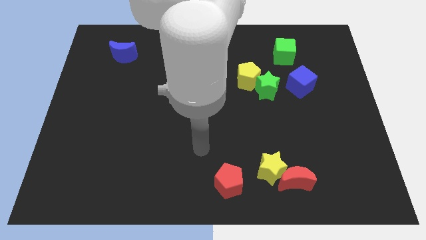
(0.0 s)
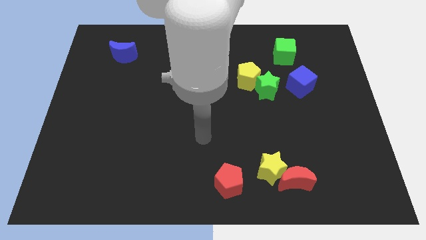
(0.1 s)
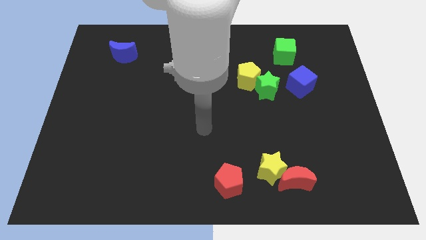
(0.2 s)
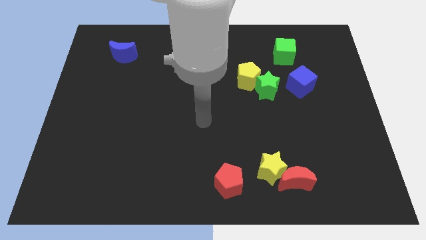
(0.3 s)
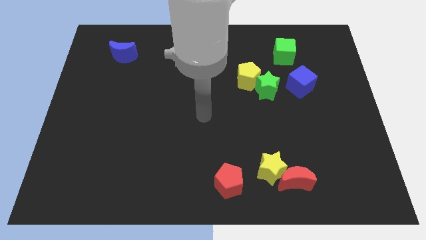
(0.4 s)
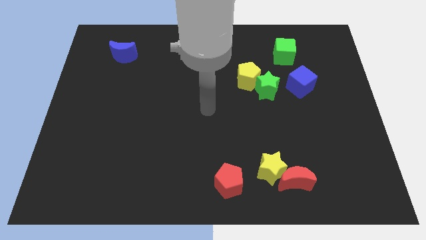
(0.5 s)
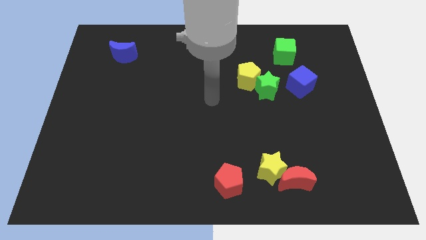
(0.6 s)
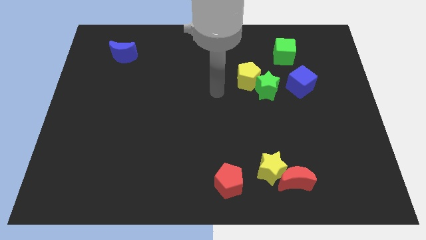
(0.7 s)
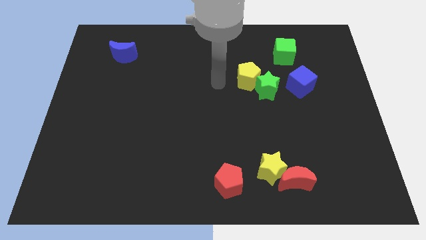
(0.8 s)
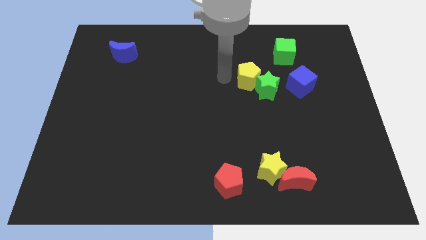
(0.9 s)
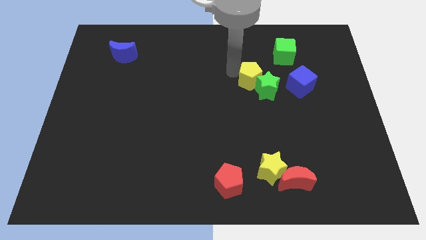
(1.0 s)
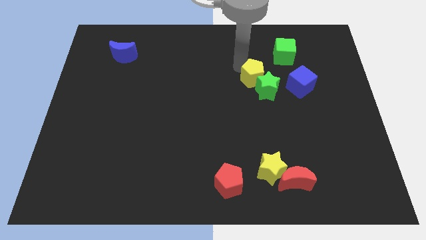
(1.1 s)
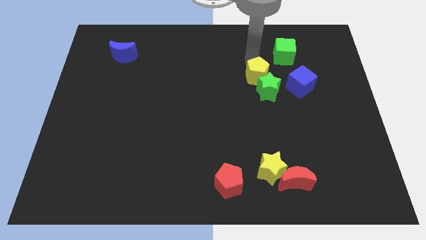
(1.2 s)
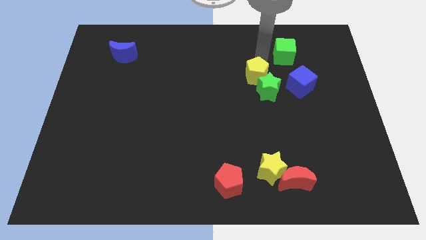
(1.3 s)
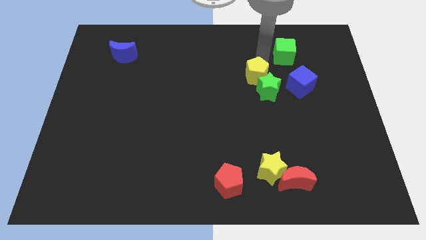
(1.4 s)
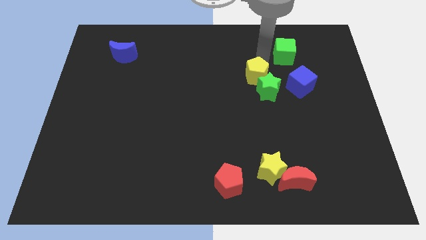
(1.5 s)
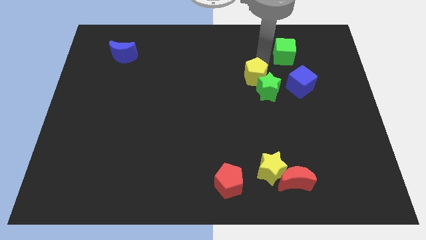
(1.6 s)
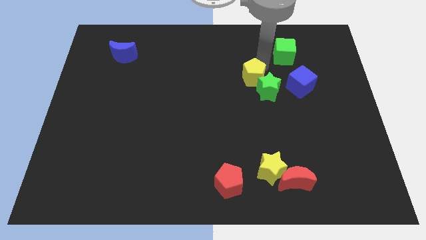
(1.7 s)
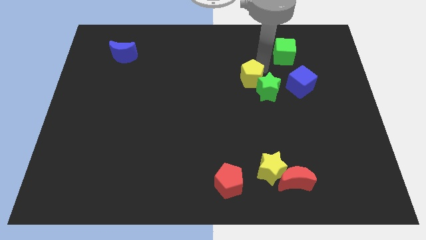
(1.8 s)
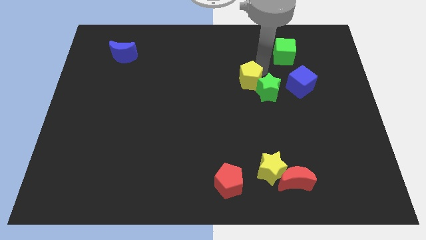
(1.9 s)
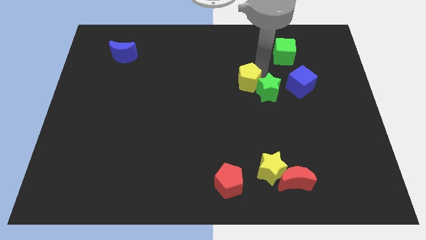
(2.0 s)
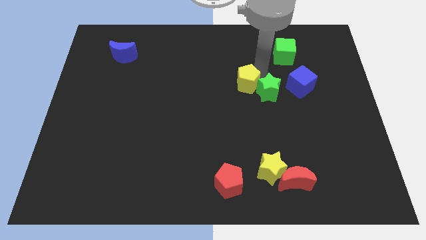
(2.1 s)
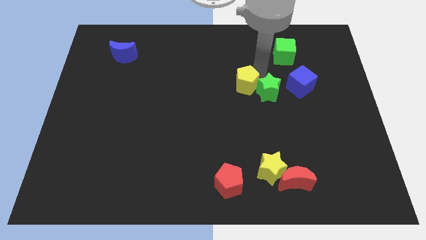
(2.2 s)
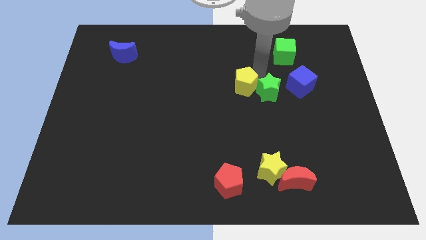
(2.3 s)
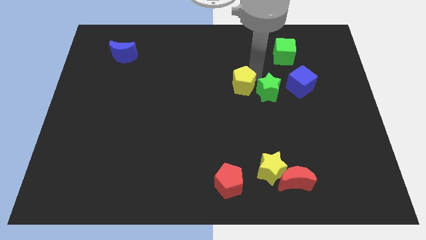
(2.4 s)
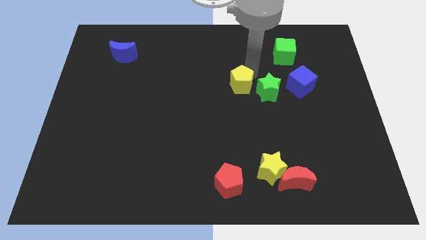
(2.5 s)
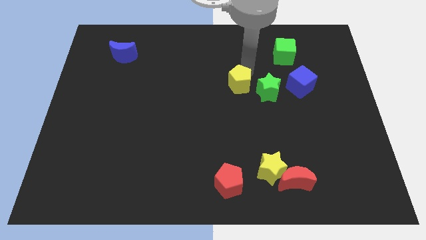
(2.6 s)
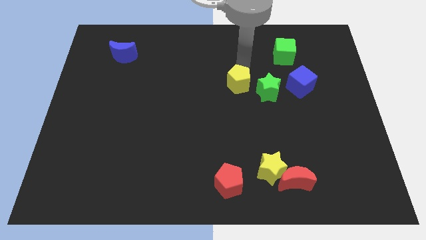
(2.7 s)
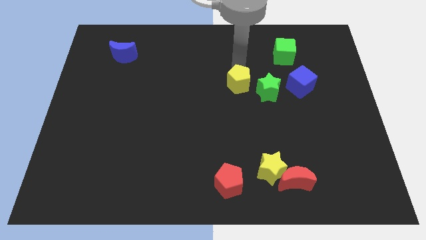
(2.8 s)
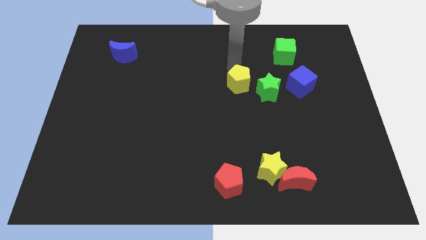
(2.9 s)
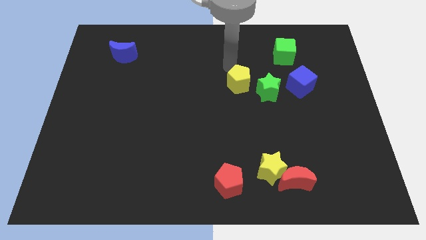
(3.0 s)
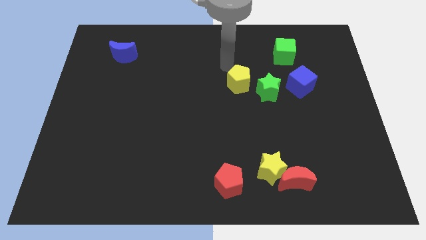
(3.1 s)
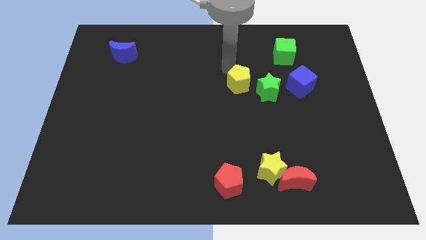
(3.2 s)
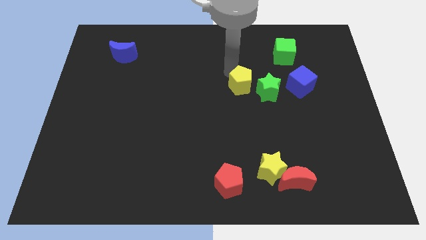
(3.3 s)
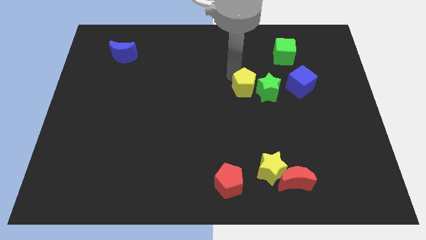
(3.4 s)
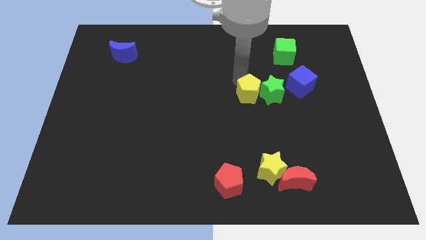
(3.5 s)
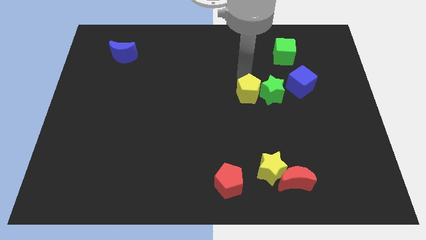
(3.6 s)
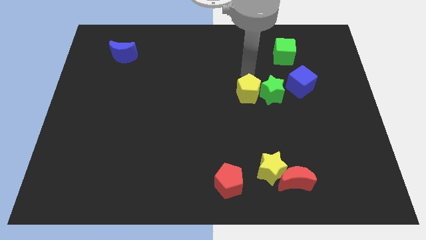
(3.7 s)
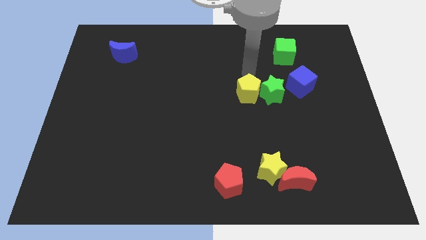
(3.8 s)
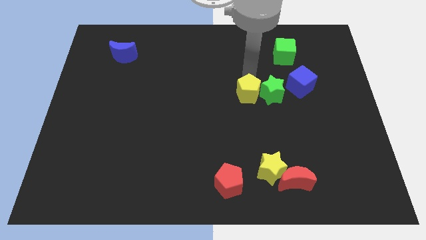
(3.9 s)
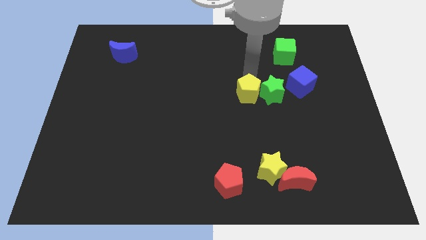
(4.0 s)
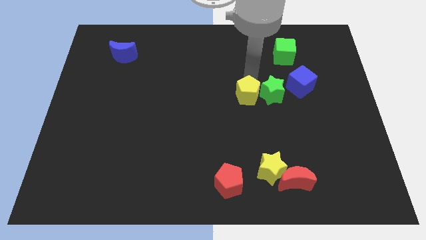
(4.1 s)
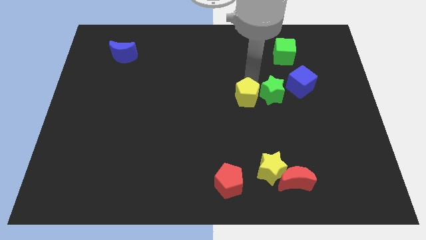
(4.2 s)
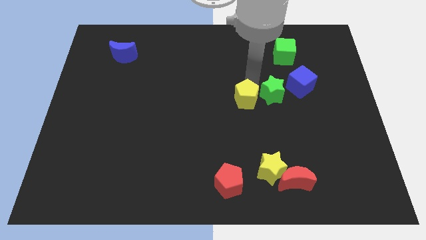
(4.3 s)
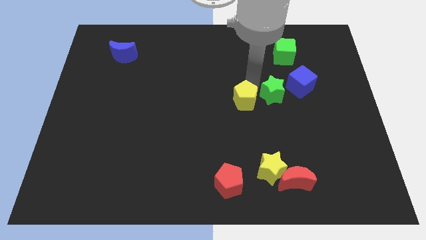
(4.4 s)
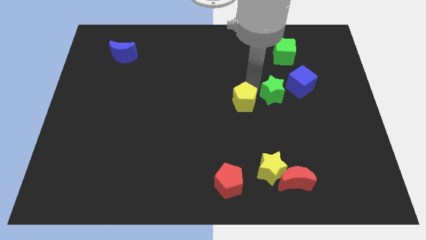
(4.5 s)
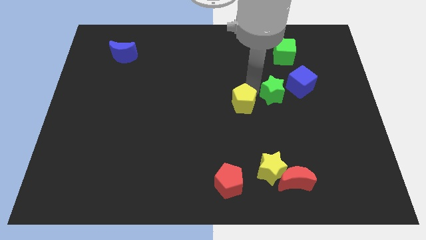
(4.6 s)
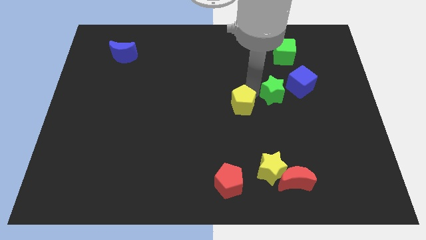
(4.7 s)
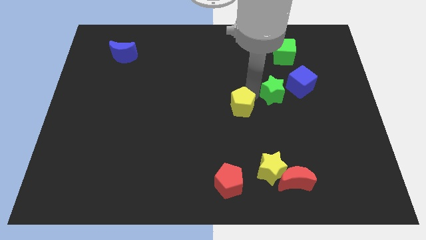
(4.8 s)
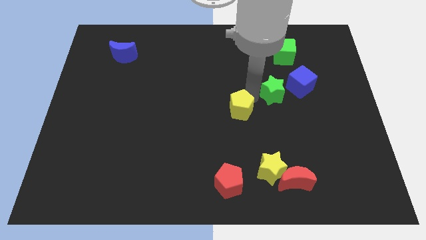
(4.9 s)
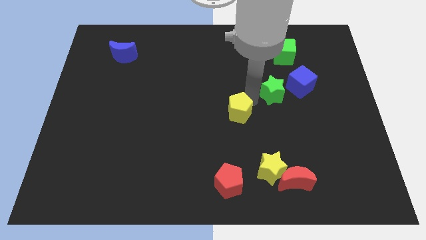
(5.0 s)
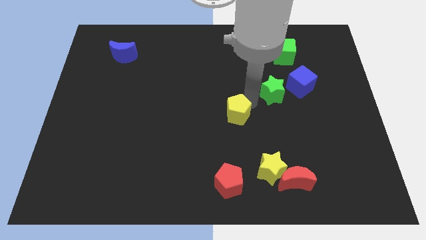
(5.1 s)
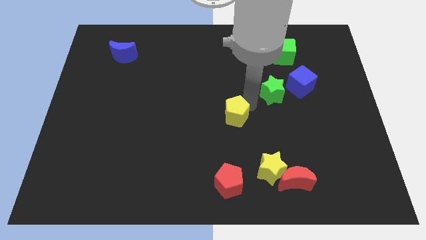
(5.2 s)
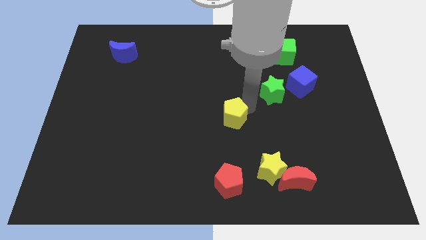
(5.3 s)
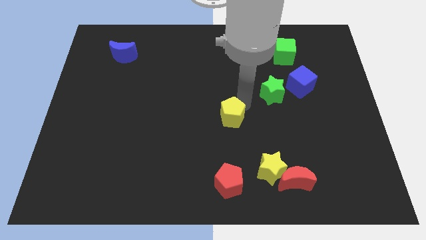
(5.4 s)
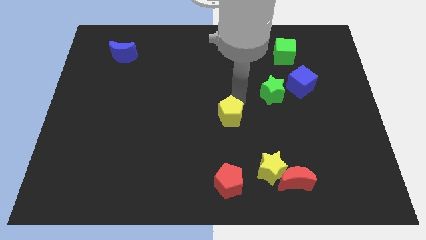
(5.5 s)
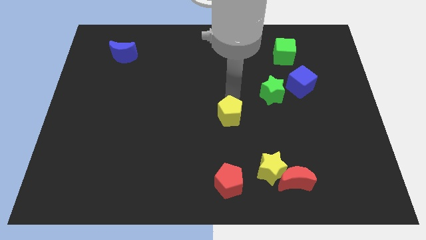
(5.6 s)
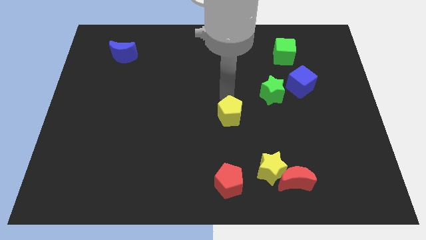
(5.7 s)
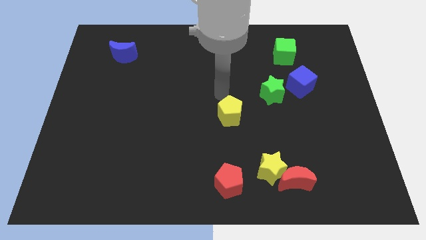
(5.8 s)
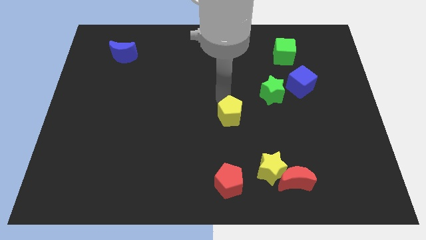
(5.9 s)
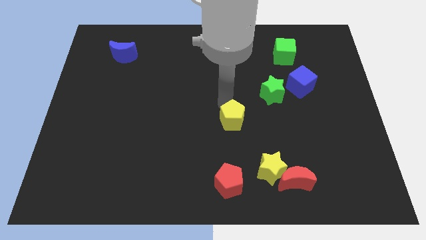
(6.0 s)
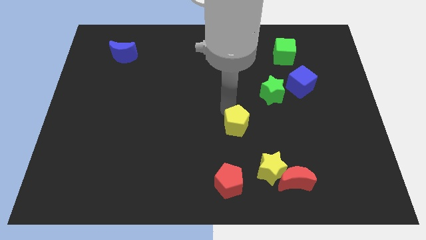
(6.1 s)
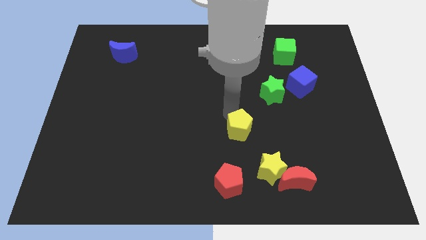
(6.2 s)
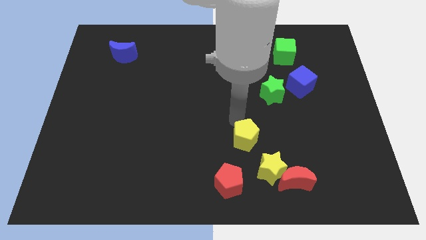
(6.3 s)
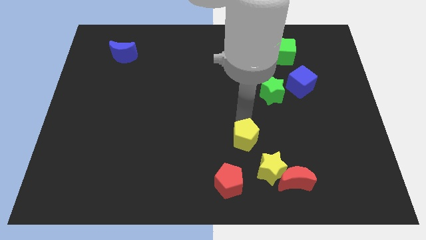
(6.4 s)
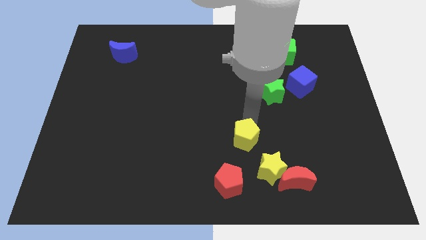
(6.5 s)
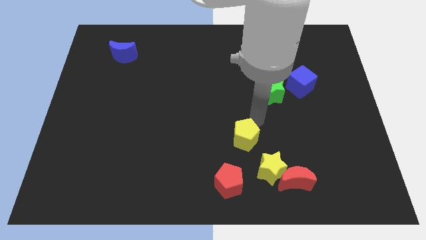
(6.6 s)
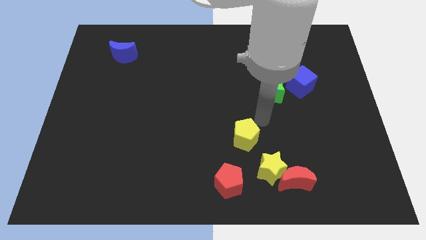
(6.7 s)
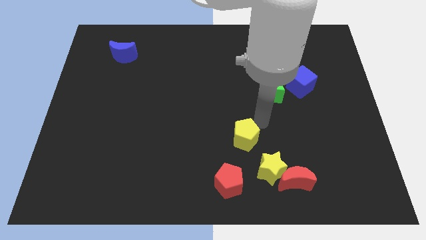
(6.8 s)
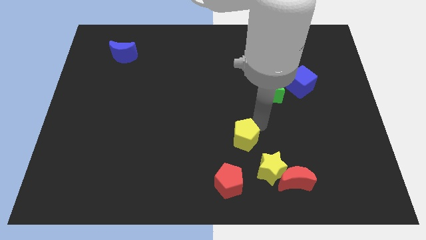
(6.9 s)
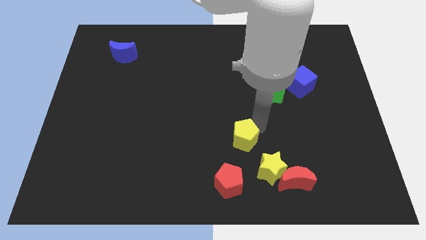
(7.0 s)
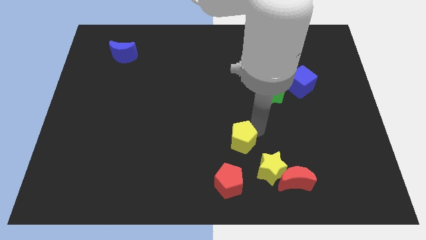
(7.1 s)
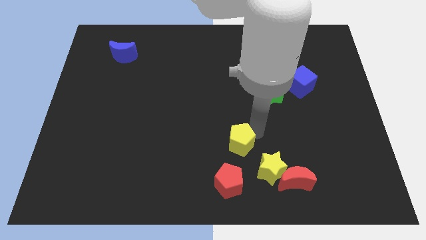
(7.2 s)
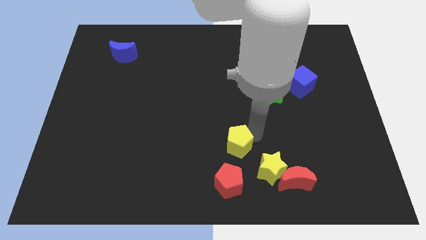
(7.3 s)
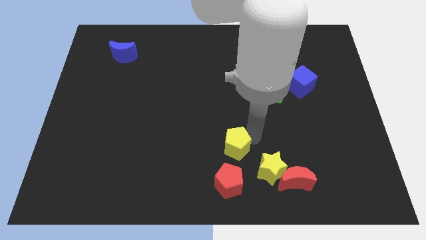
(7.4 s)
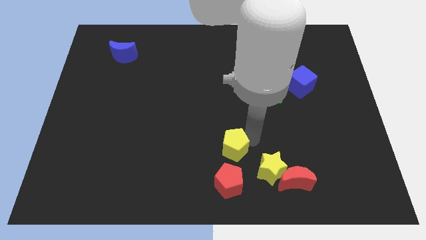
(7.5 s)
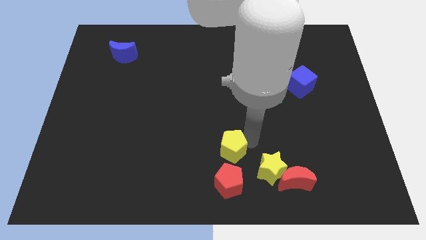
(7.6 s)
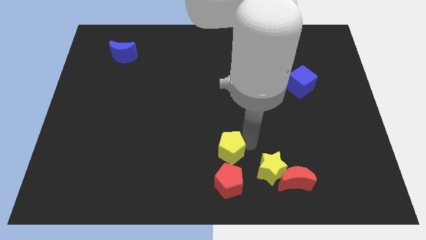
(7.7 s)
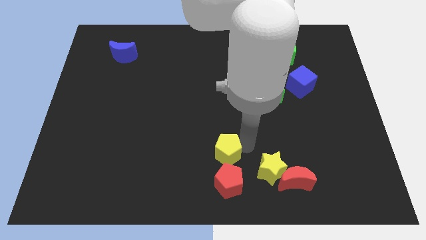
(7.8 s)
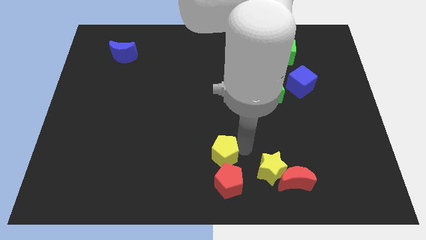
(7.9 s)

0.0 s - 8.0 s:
push the yellow pentagon to the bottom side
